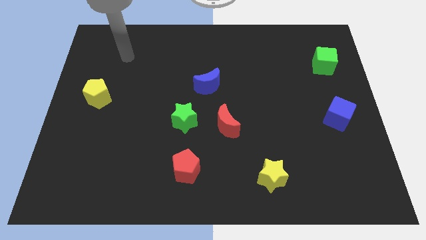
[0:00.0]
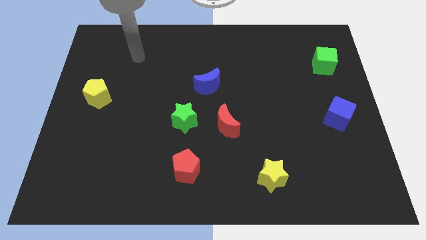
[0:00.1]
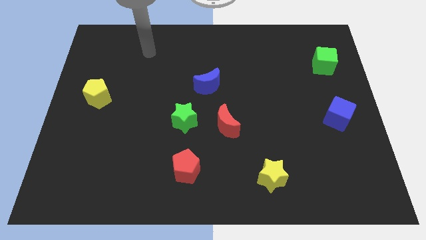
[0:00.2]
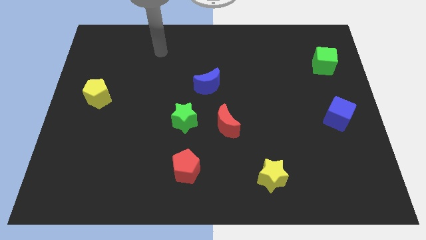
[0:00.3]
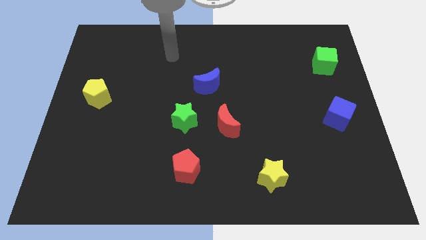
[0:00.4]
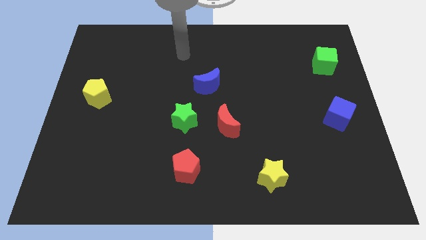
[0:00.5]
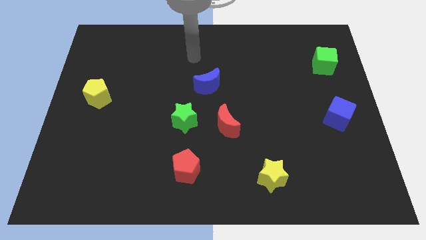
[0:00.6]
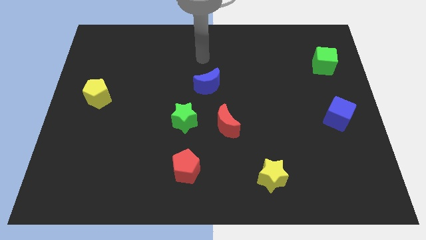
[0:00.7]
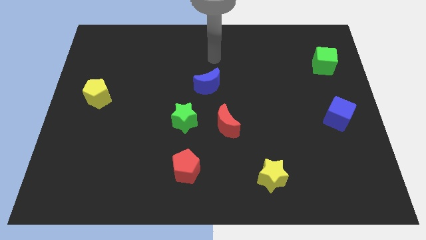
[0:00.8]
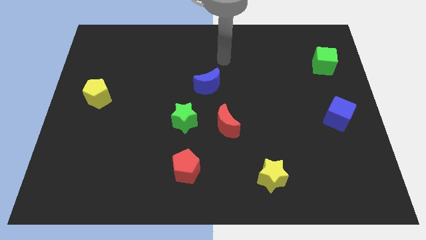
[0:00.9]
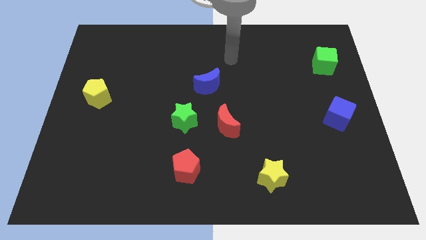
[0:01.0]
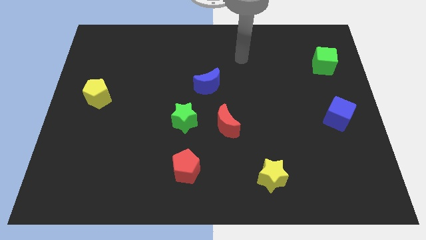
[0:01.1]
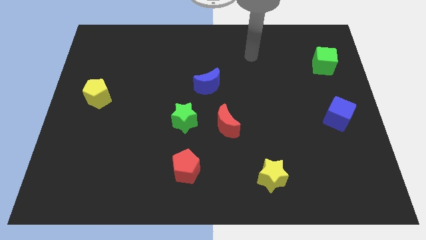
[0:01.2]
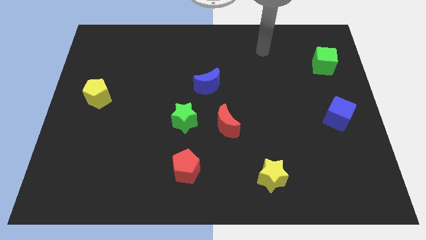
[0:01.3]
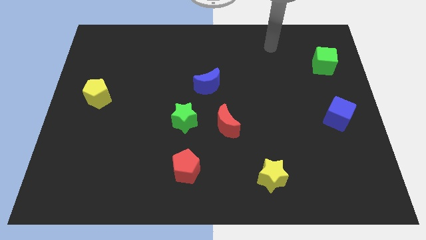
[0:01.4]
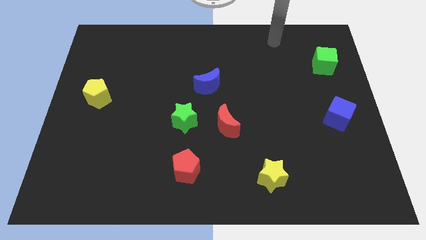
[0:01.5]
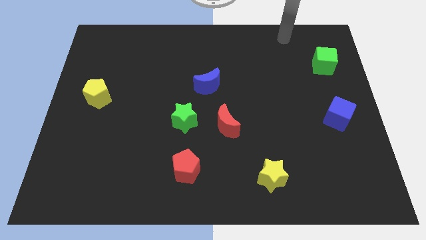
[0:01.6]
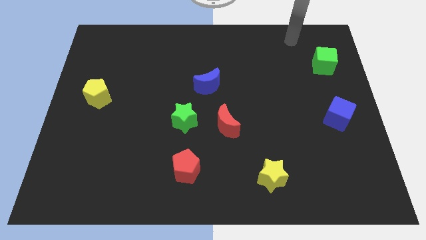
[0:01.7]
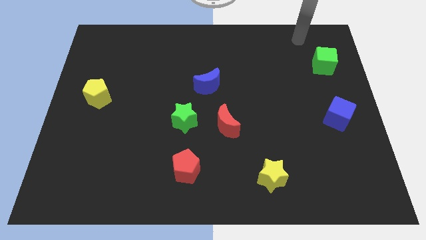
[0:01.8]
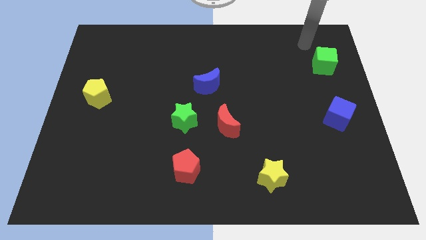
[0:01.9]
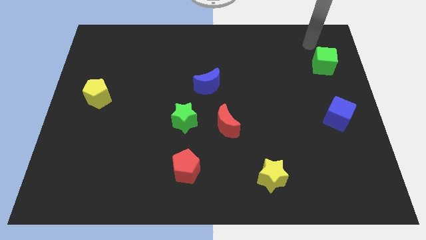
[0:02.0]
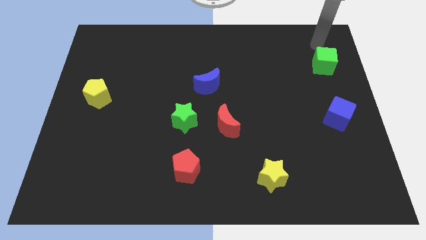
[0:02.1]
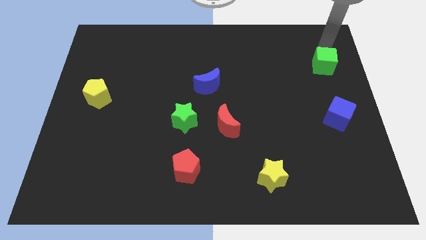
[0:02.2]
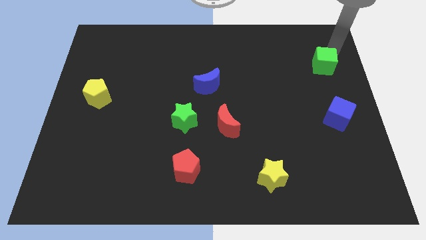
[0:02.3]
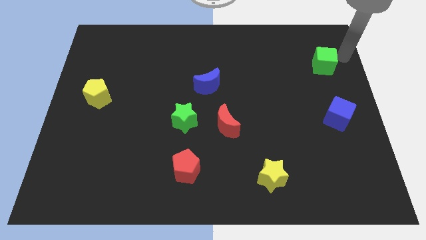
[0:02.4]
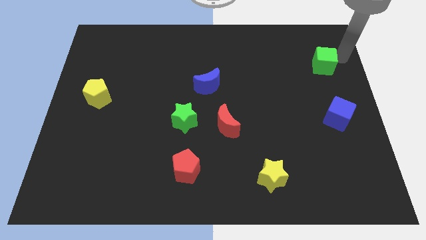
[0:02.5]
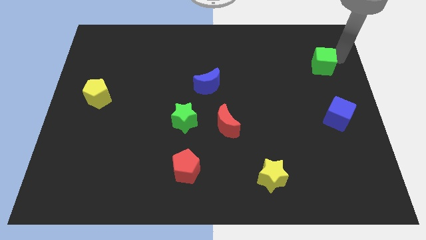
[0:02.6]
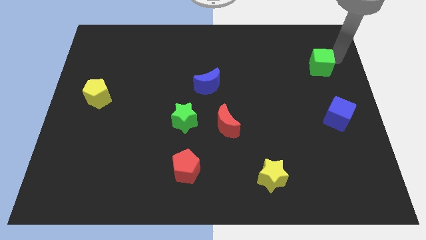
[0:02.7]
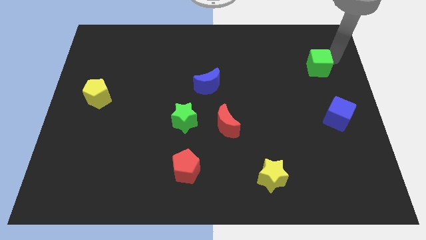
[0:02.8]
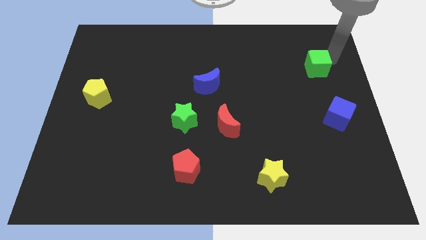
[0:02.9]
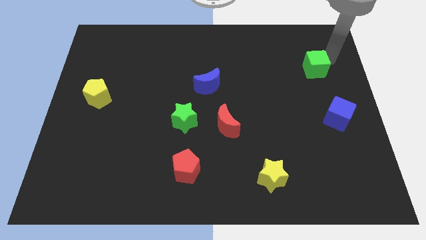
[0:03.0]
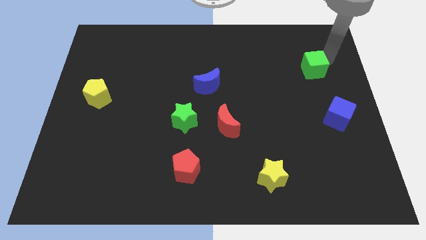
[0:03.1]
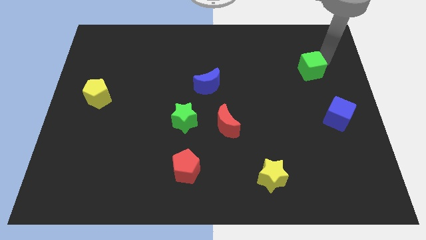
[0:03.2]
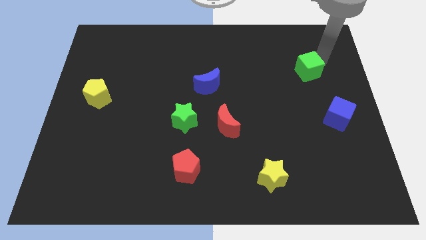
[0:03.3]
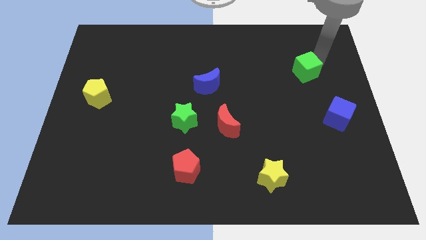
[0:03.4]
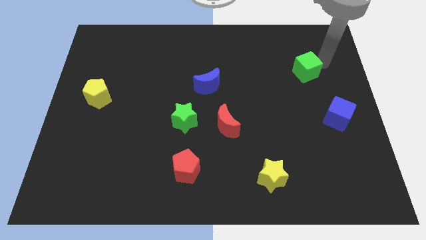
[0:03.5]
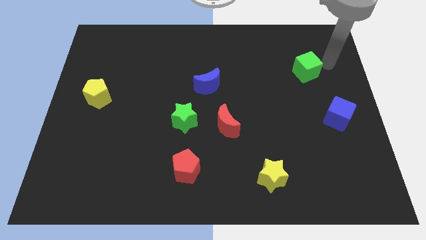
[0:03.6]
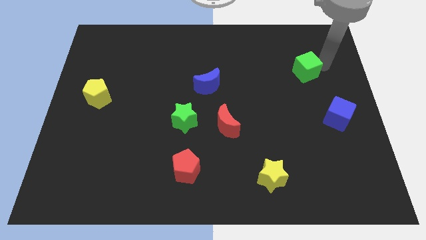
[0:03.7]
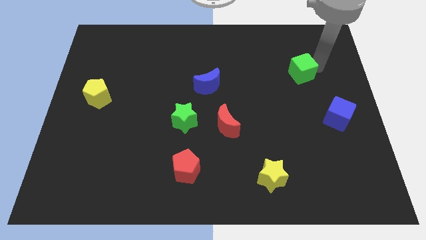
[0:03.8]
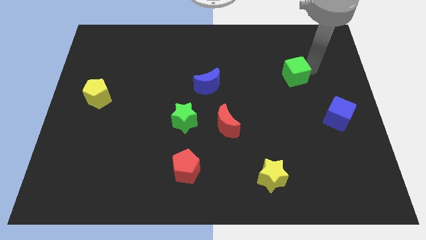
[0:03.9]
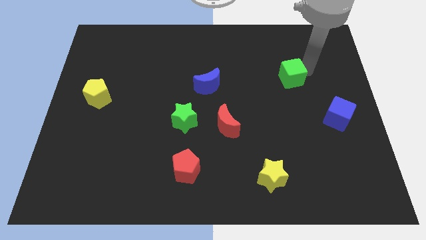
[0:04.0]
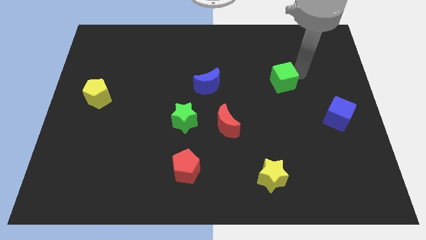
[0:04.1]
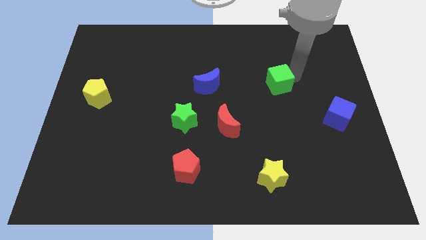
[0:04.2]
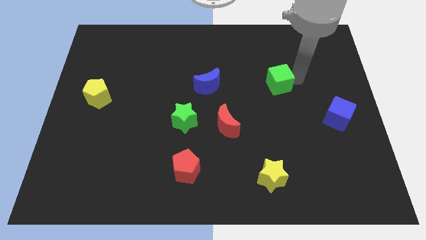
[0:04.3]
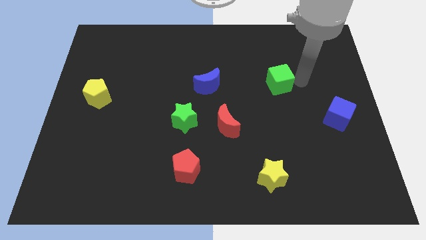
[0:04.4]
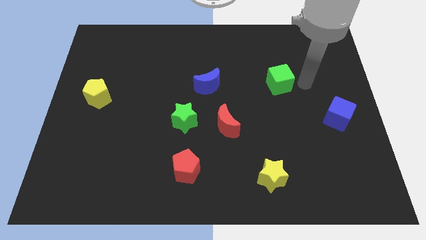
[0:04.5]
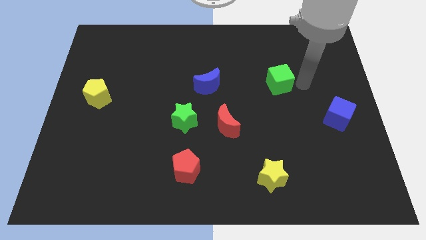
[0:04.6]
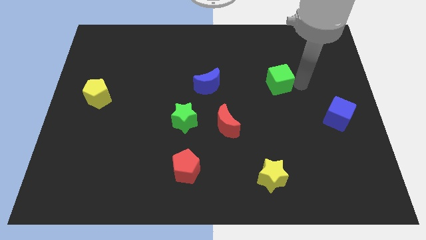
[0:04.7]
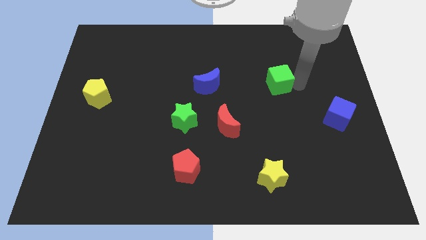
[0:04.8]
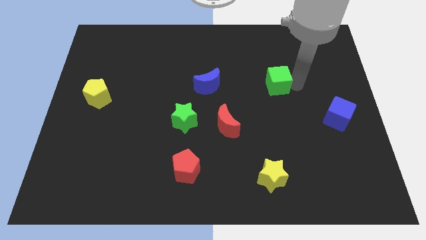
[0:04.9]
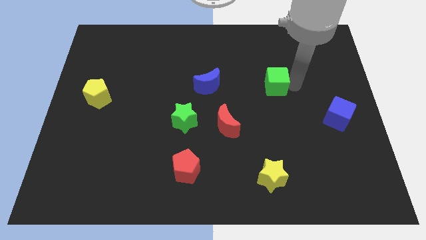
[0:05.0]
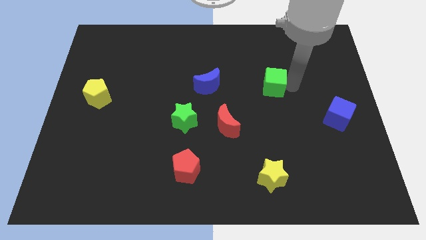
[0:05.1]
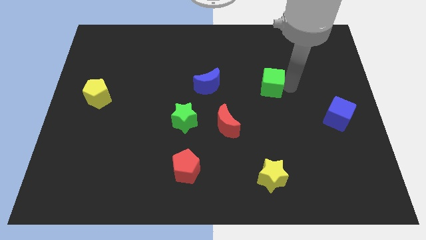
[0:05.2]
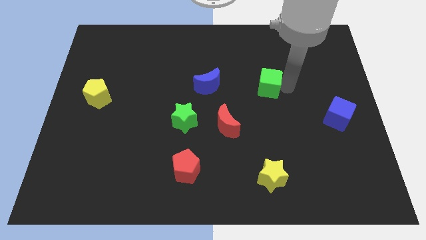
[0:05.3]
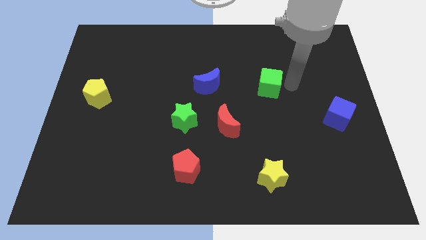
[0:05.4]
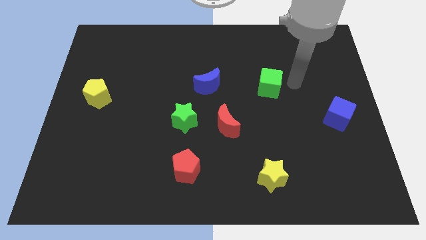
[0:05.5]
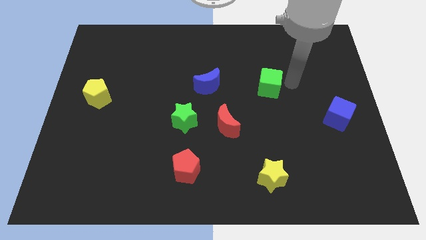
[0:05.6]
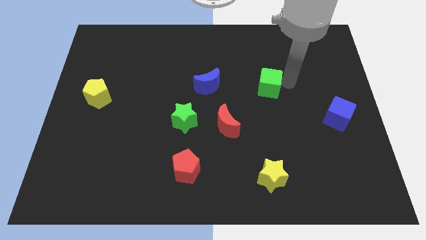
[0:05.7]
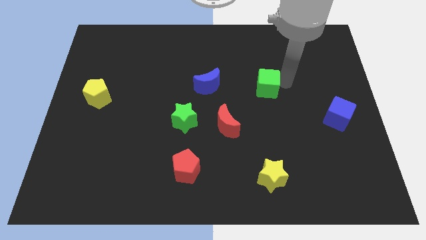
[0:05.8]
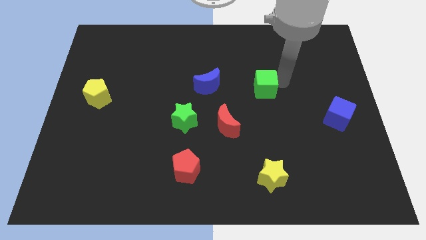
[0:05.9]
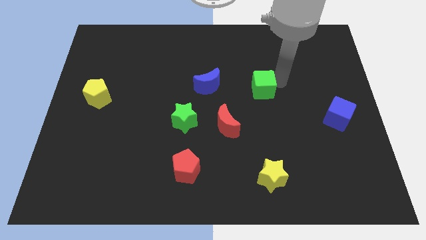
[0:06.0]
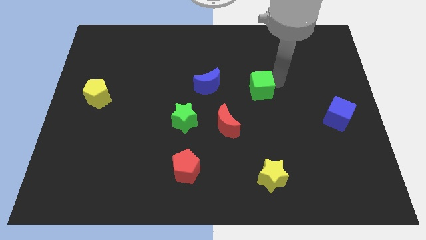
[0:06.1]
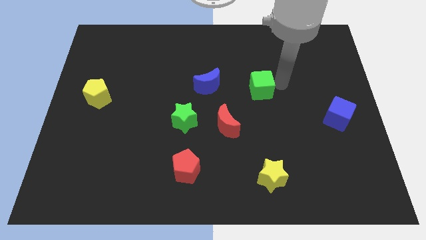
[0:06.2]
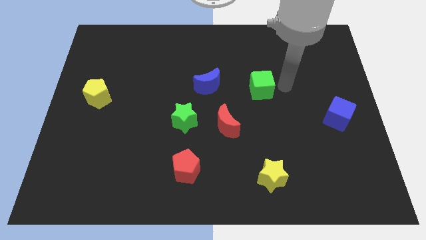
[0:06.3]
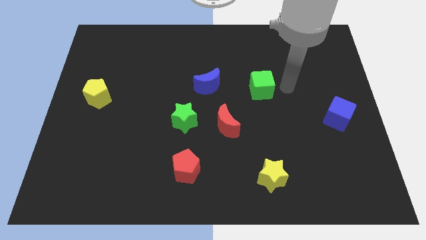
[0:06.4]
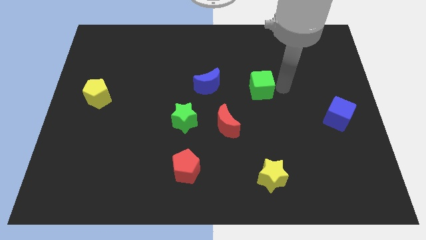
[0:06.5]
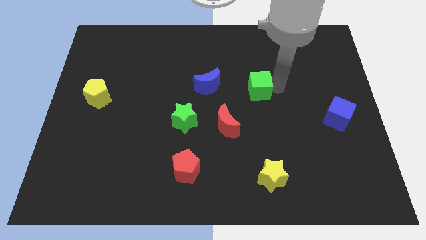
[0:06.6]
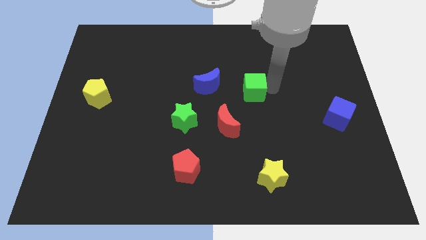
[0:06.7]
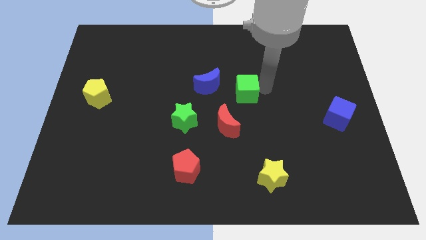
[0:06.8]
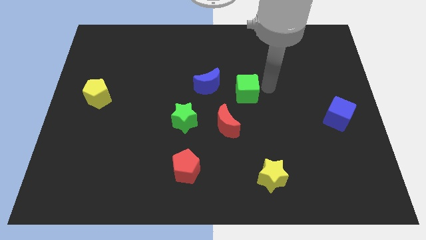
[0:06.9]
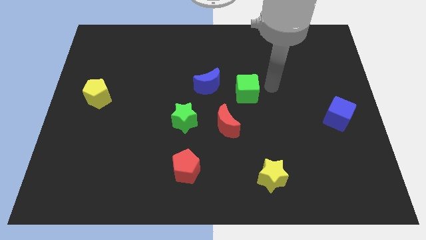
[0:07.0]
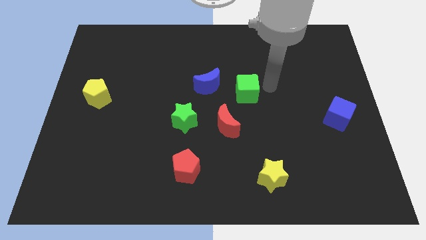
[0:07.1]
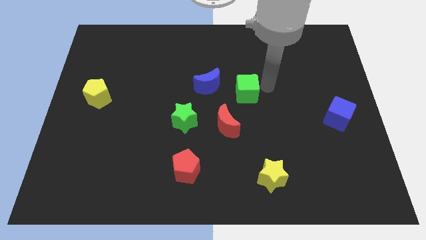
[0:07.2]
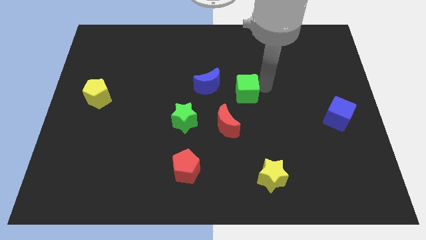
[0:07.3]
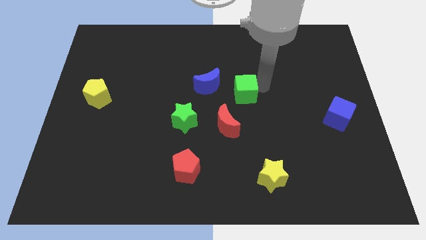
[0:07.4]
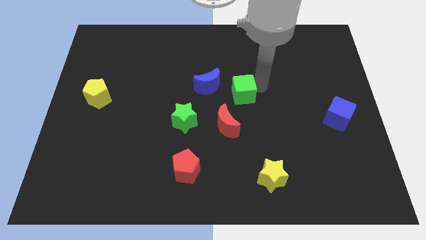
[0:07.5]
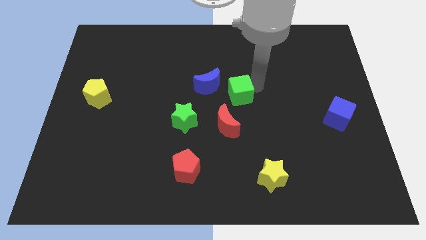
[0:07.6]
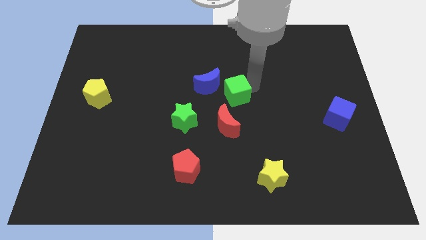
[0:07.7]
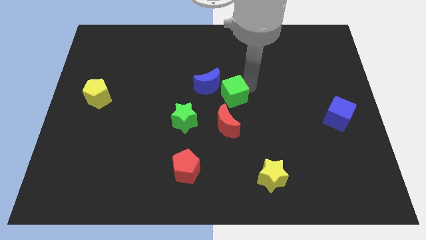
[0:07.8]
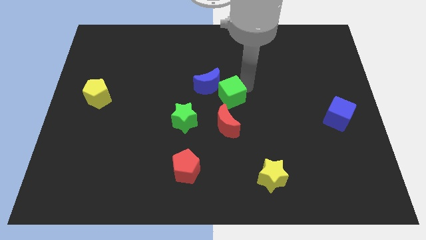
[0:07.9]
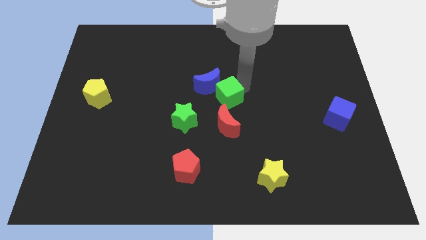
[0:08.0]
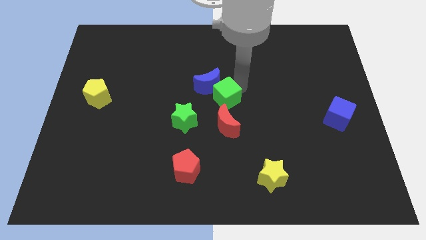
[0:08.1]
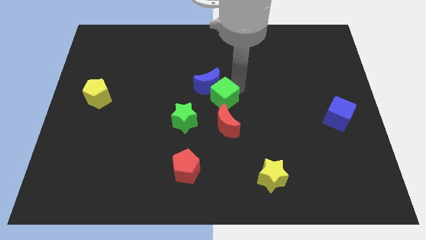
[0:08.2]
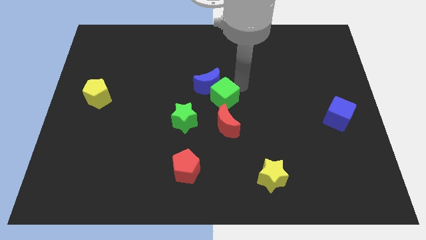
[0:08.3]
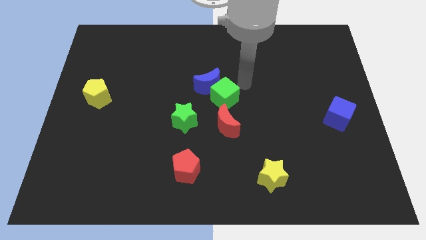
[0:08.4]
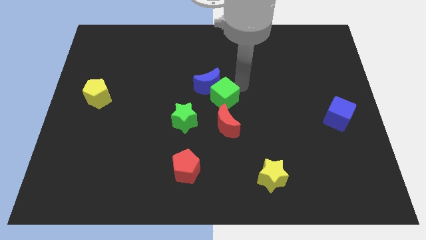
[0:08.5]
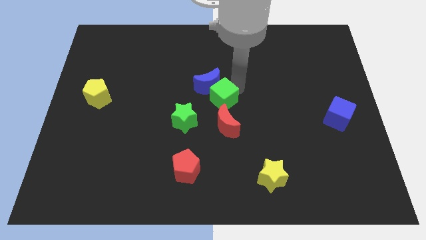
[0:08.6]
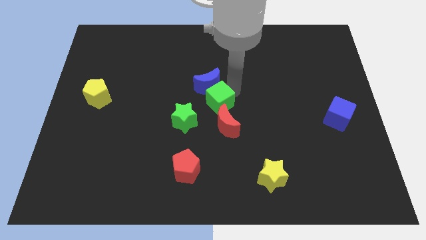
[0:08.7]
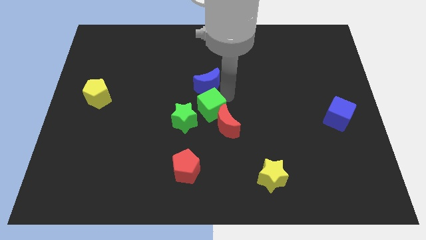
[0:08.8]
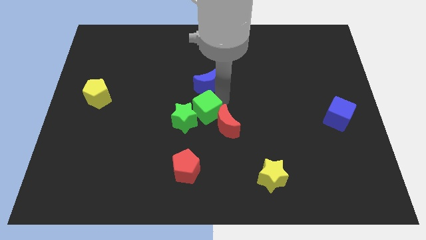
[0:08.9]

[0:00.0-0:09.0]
slide the green cube next to the green star
